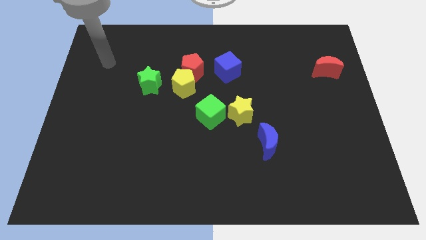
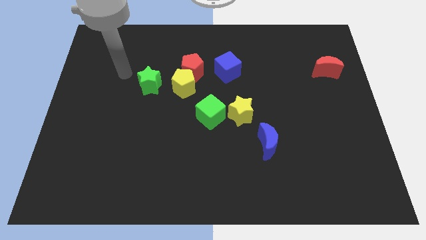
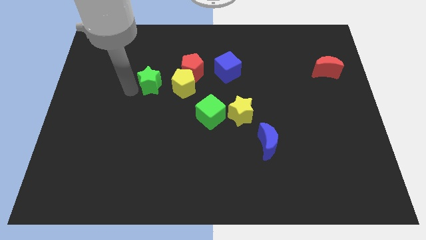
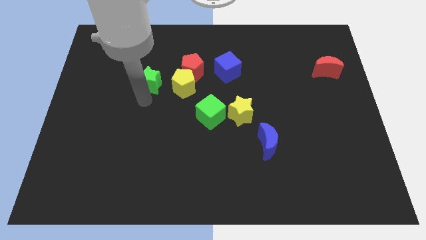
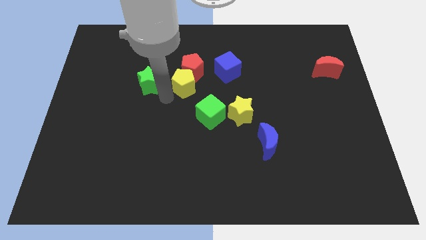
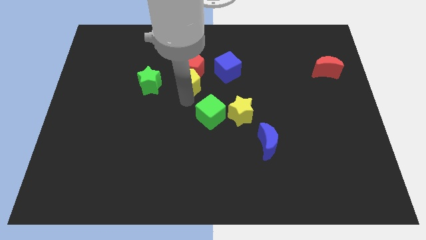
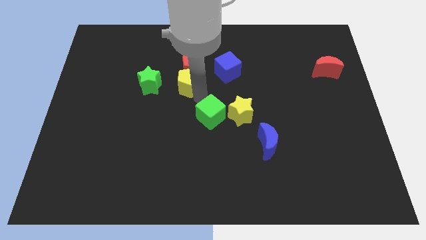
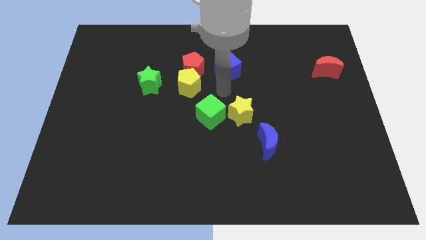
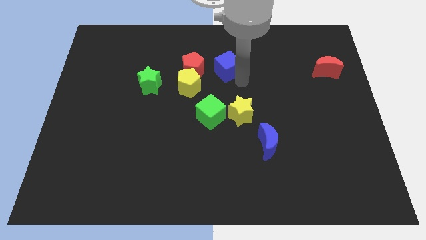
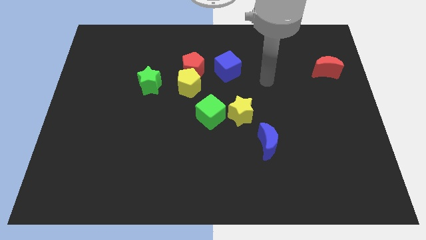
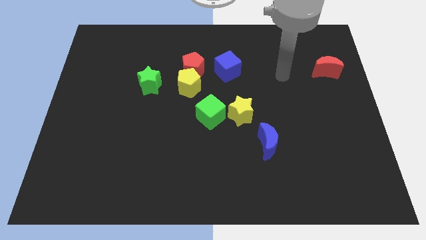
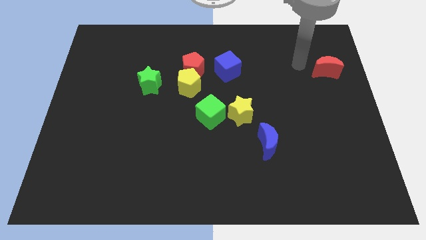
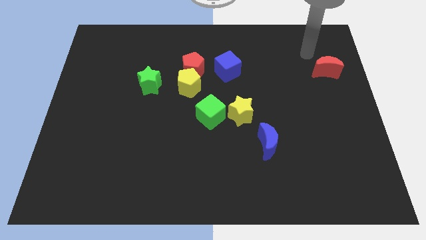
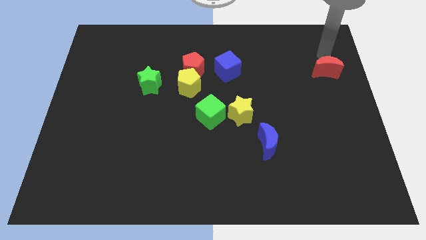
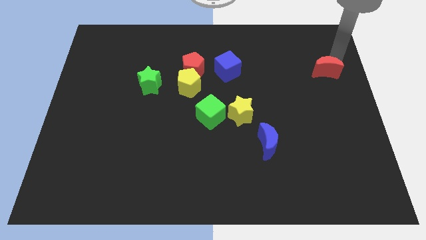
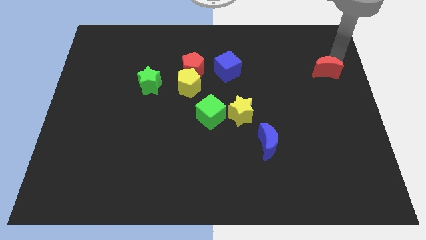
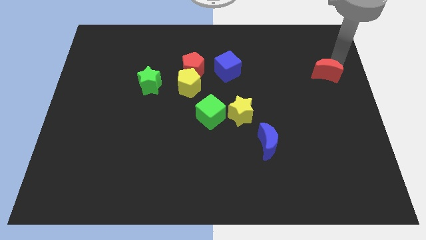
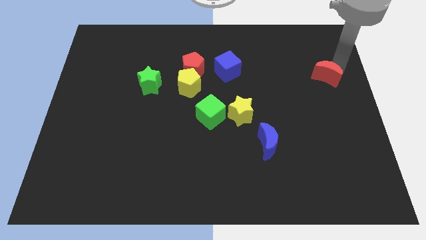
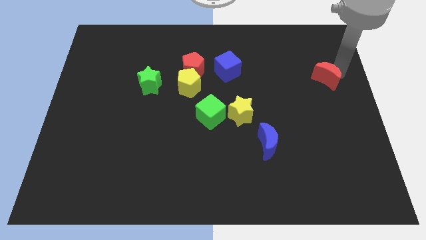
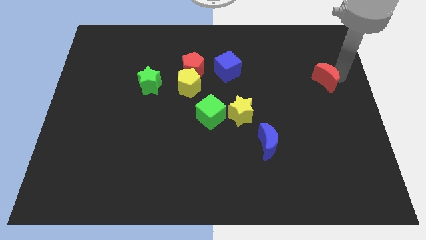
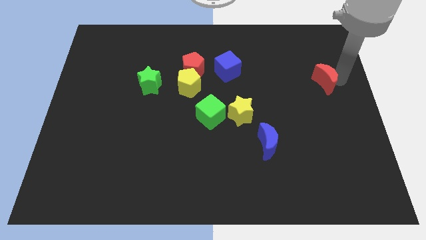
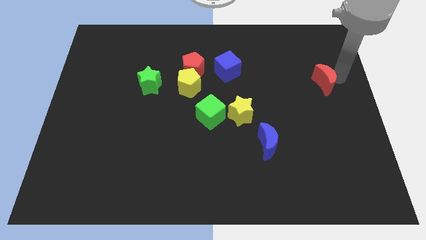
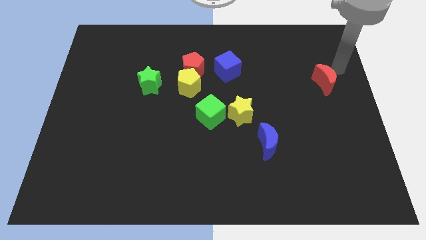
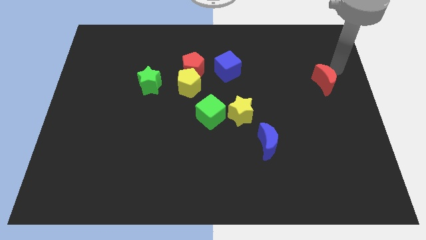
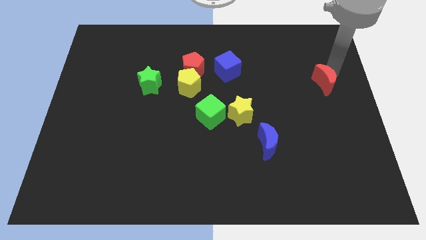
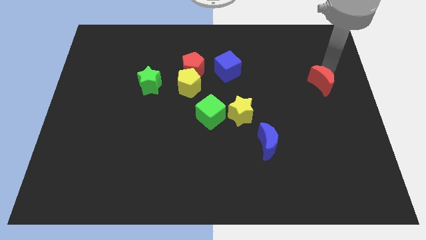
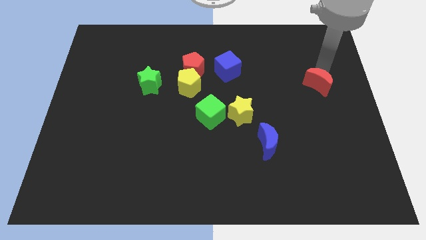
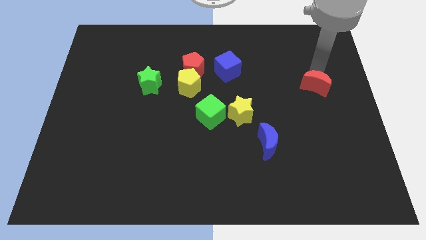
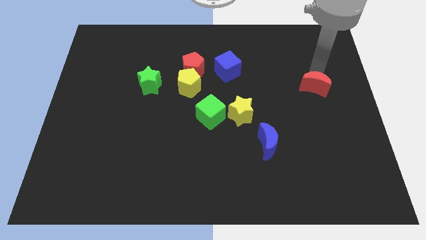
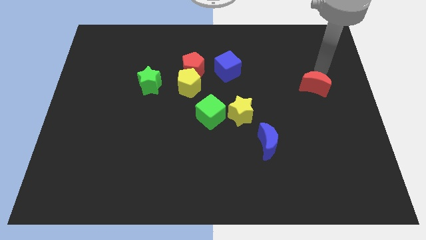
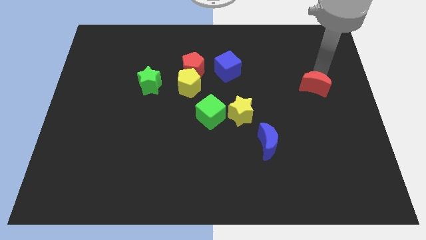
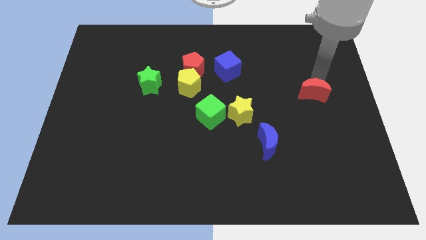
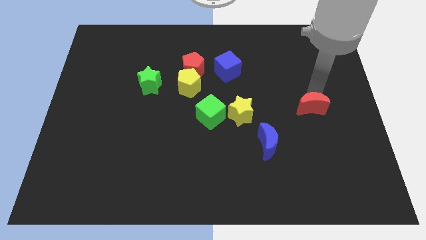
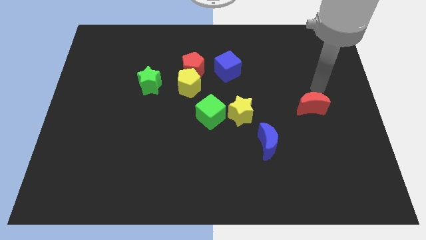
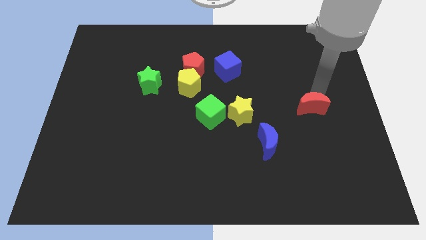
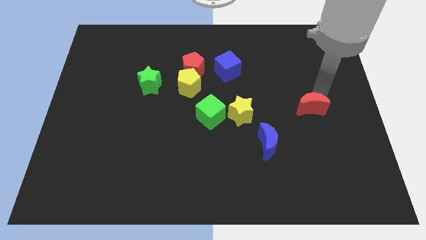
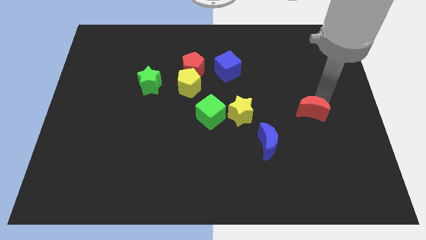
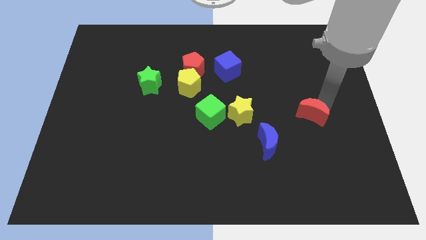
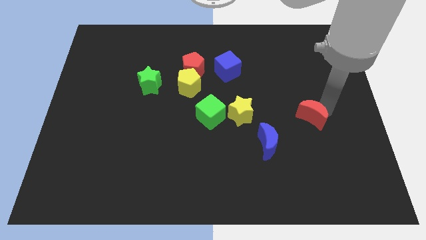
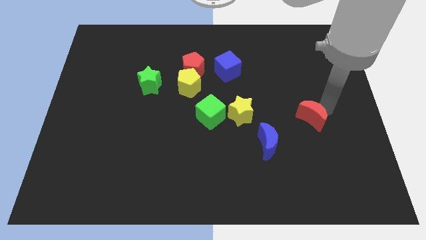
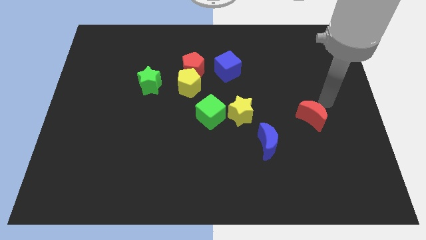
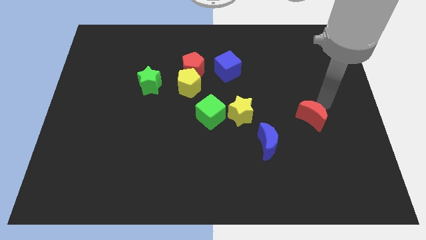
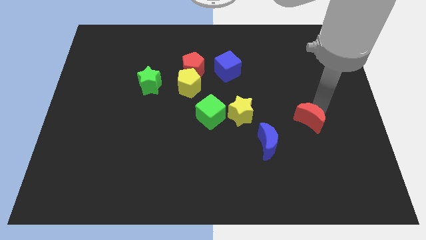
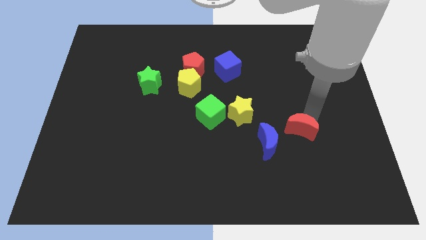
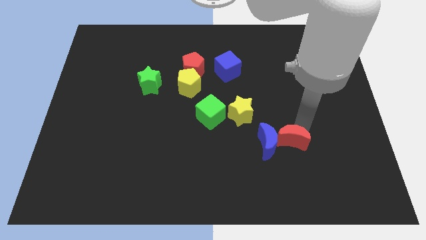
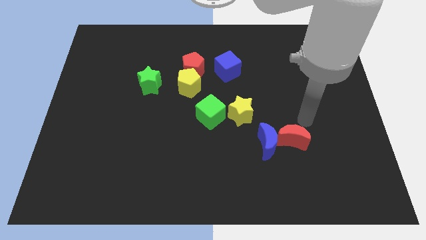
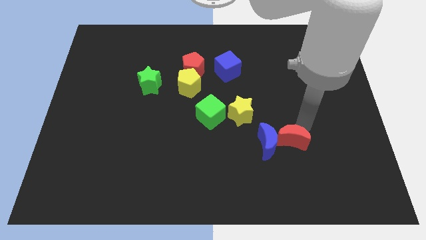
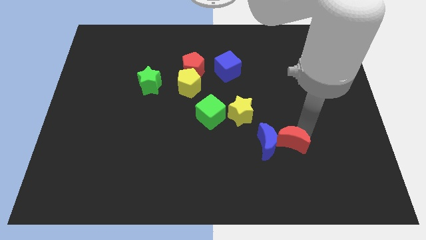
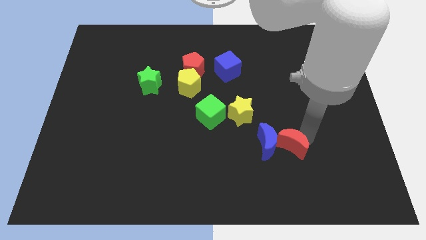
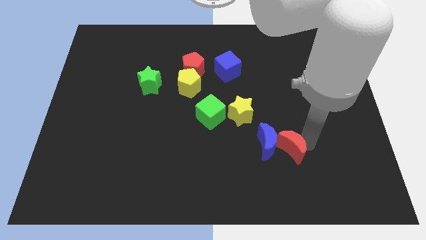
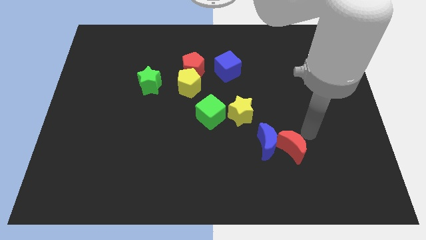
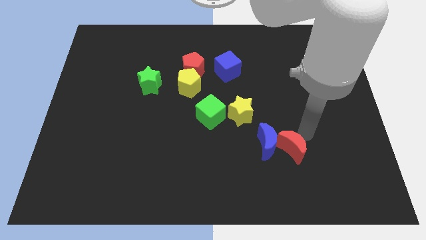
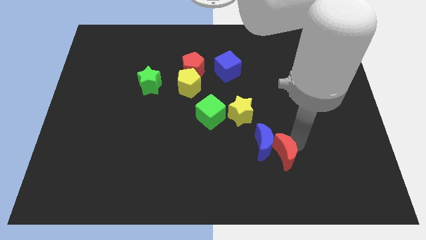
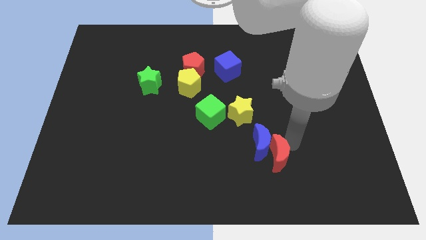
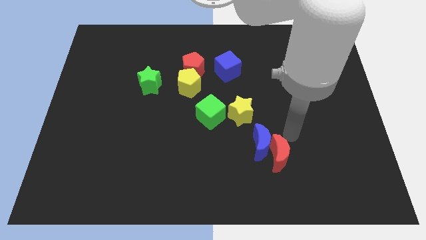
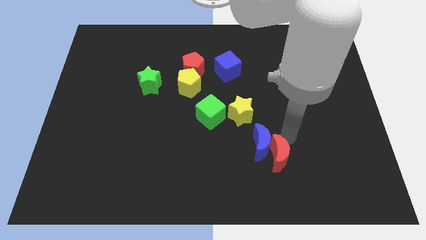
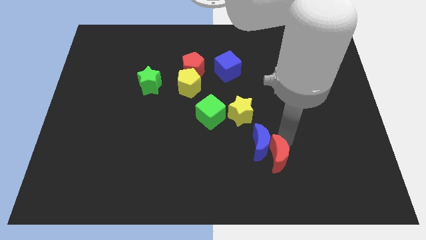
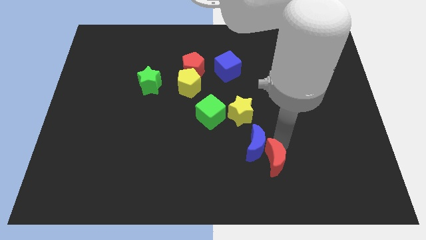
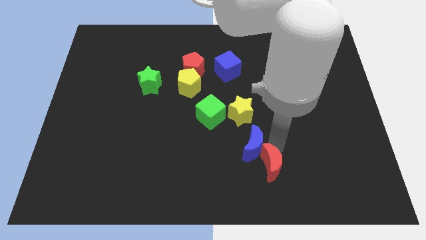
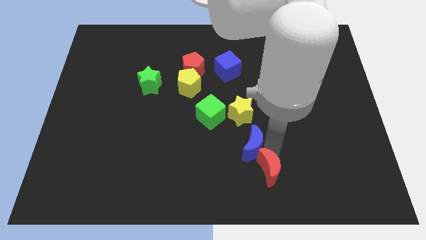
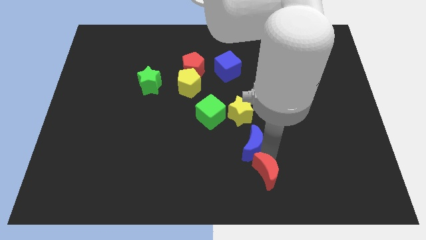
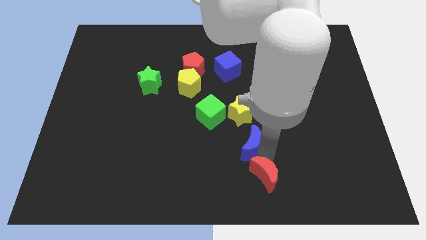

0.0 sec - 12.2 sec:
put the red moon to the bottom side

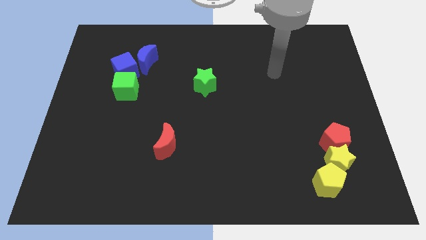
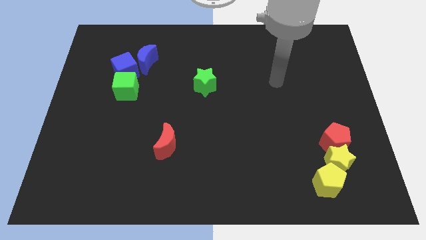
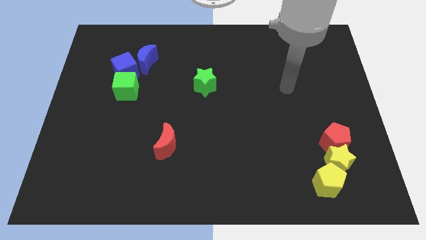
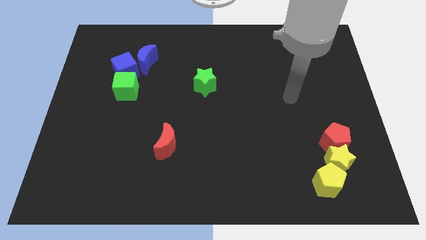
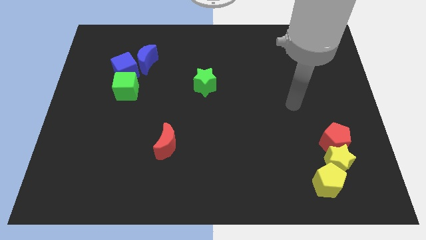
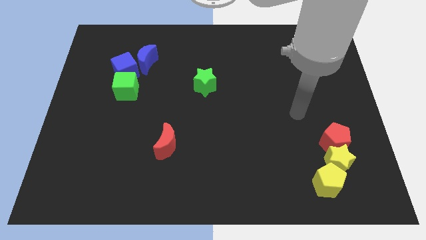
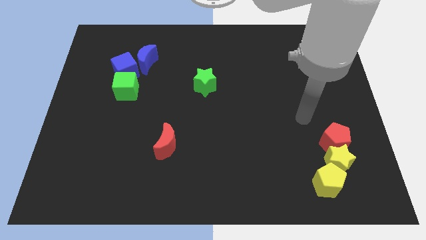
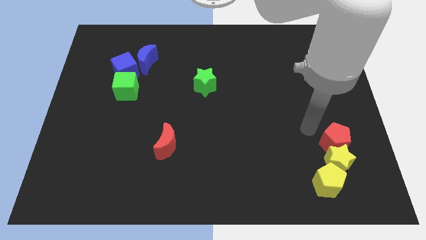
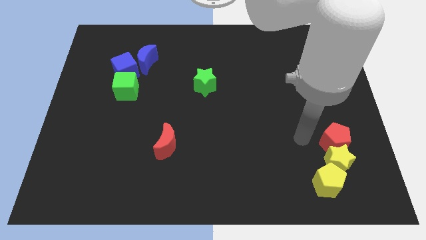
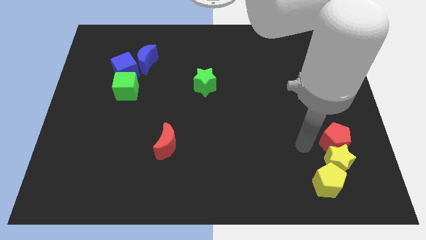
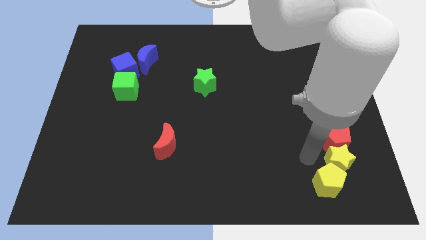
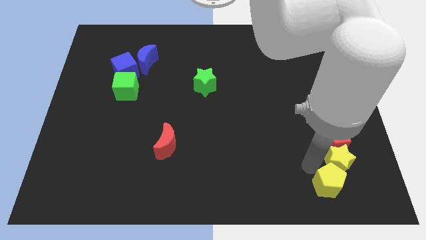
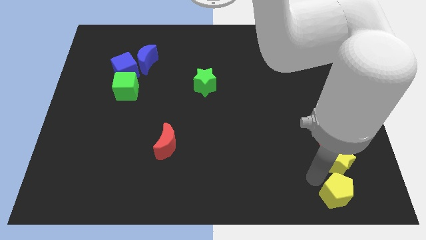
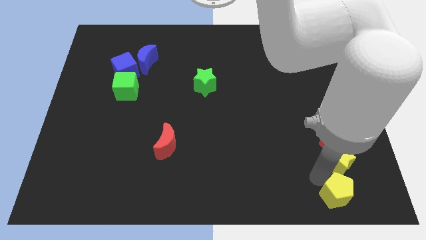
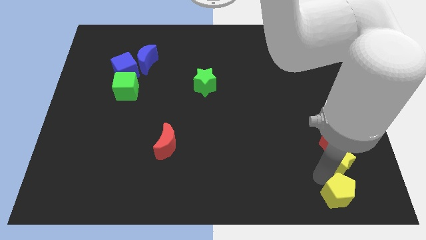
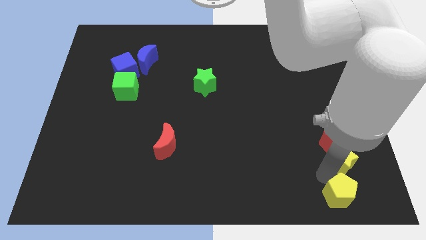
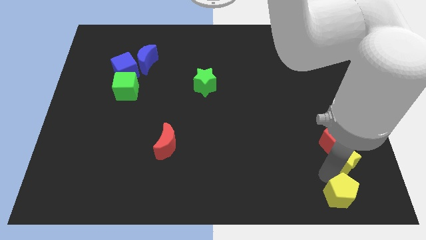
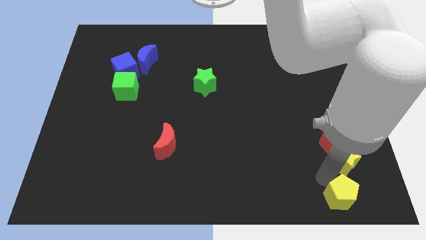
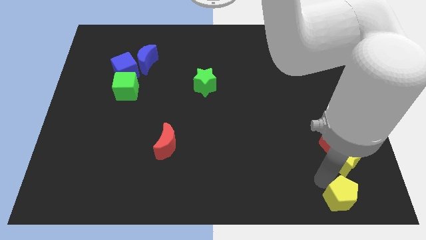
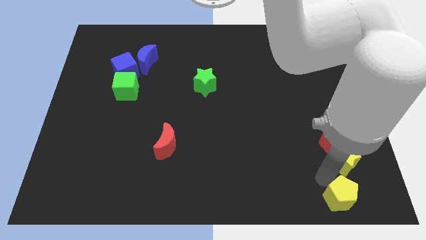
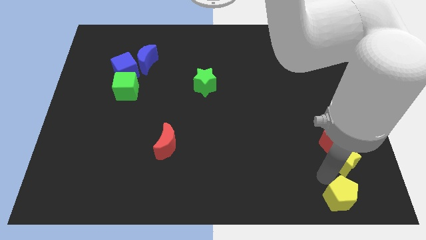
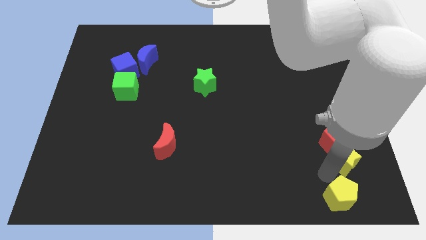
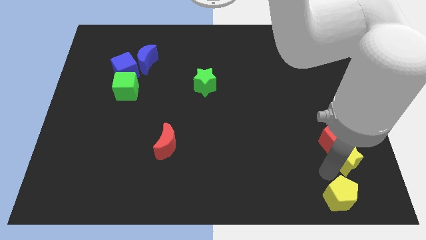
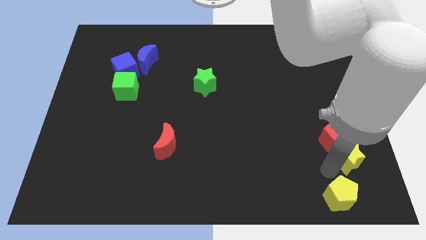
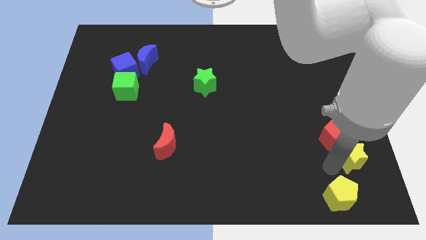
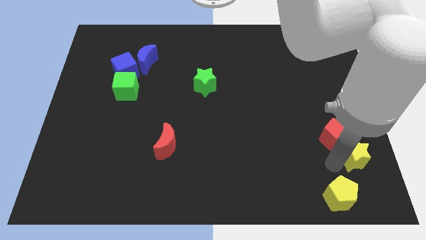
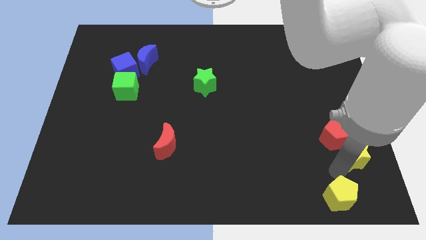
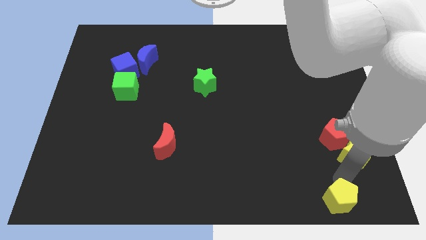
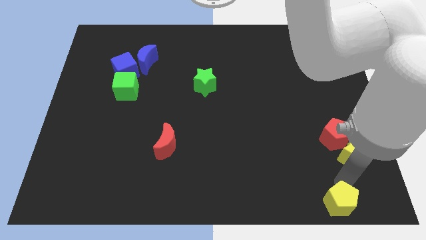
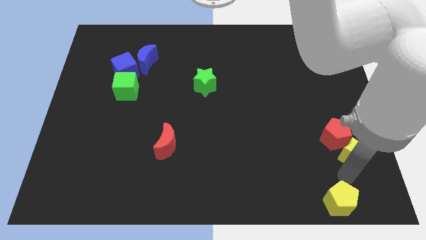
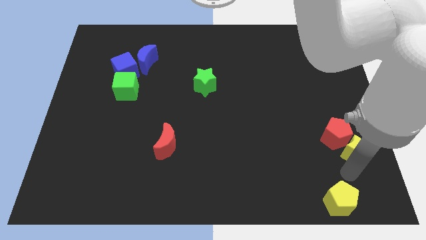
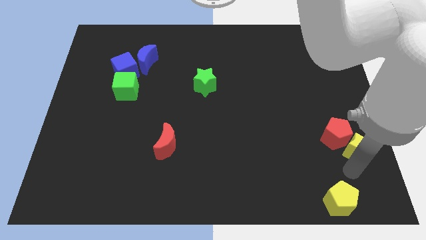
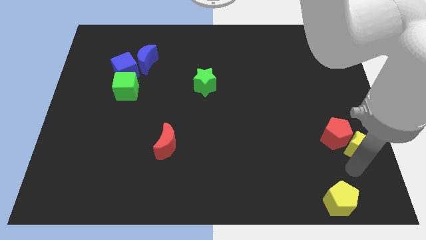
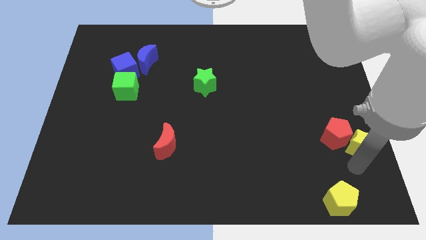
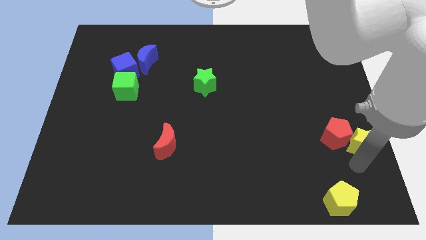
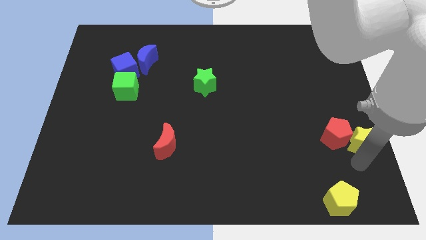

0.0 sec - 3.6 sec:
push the yellow star to the center right
